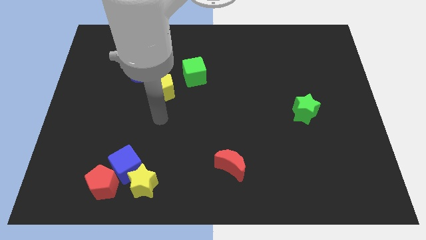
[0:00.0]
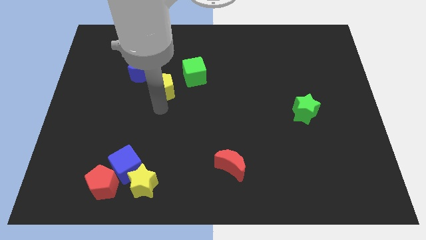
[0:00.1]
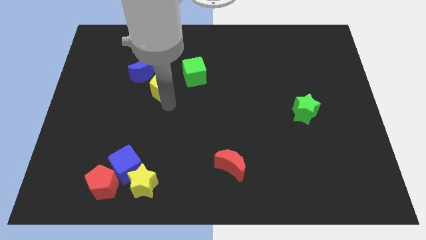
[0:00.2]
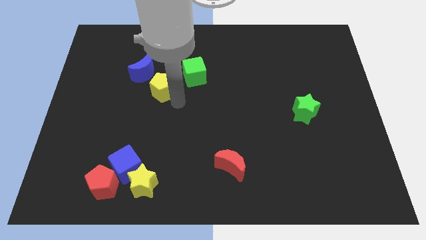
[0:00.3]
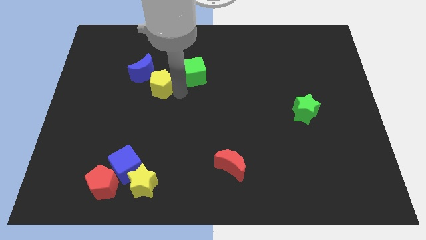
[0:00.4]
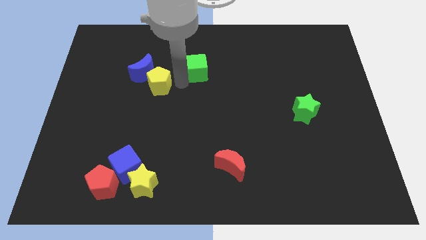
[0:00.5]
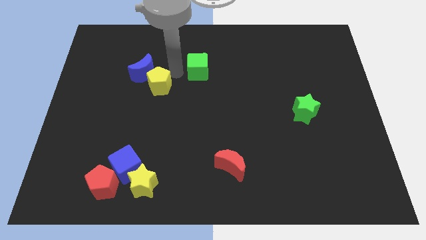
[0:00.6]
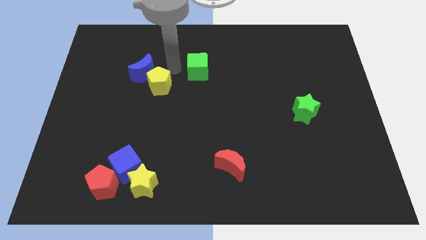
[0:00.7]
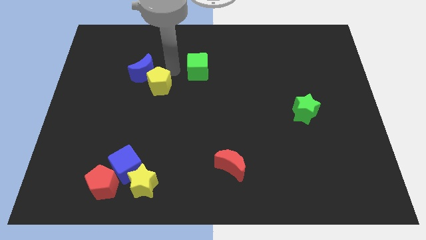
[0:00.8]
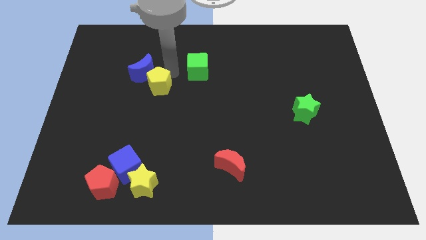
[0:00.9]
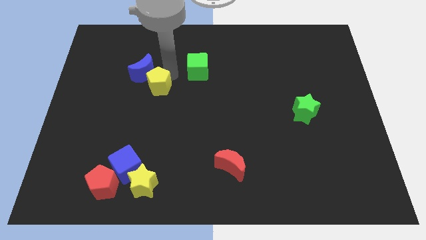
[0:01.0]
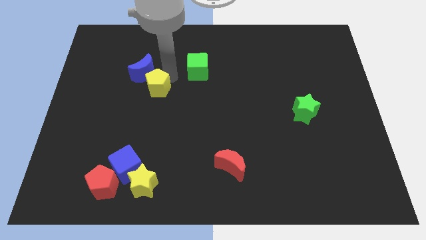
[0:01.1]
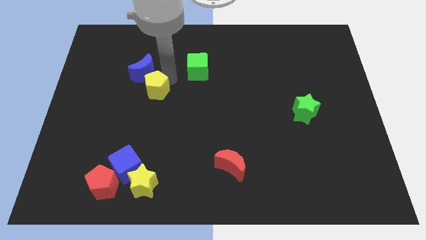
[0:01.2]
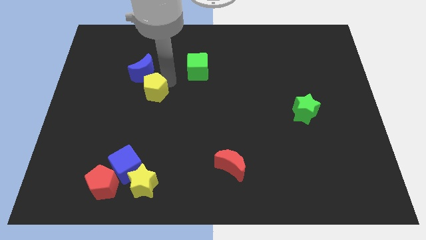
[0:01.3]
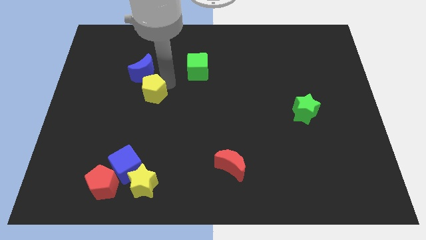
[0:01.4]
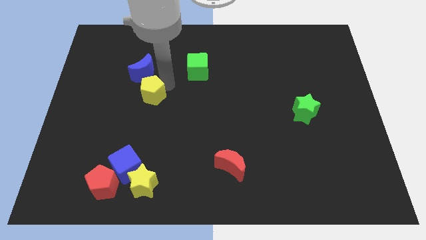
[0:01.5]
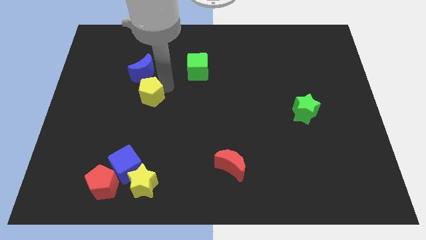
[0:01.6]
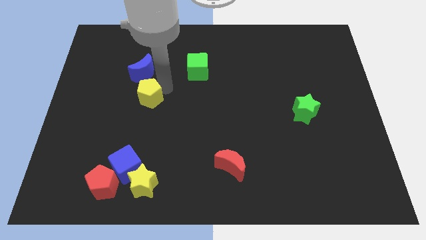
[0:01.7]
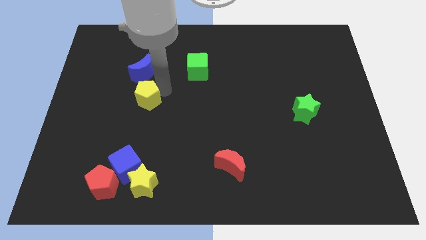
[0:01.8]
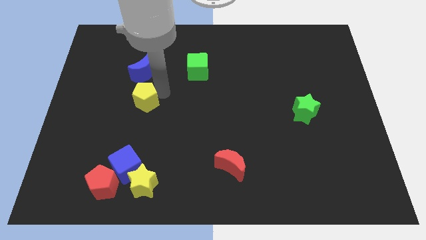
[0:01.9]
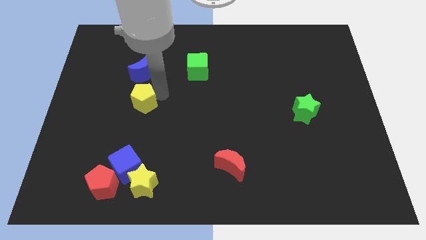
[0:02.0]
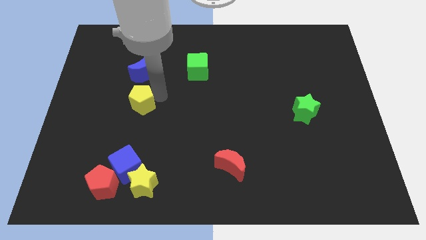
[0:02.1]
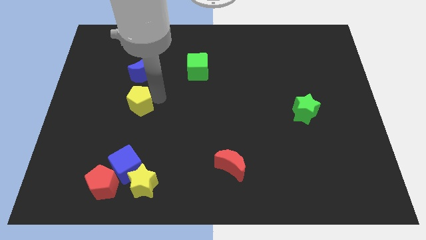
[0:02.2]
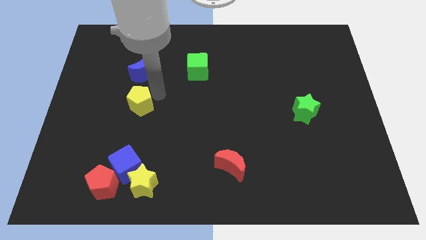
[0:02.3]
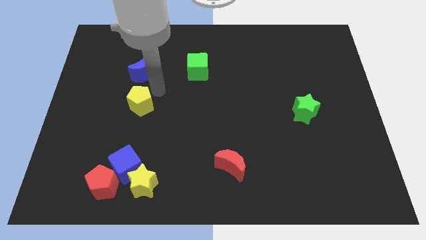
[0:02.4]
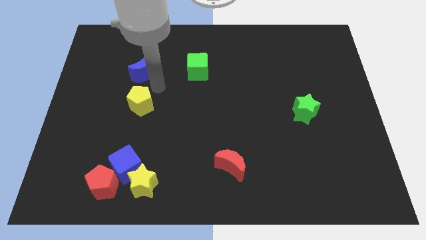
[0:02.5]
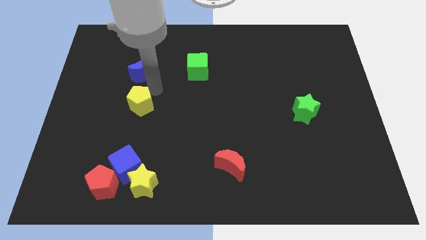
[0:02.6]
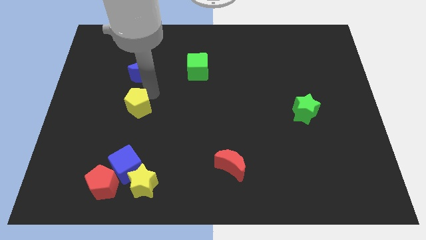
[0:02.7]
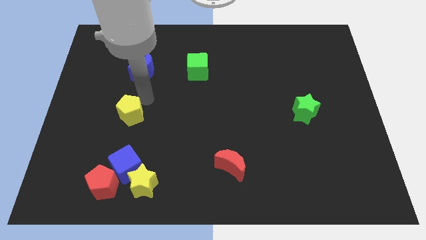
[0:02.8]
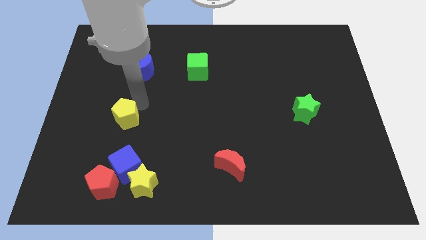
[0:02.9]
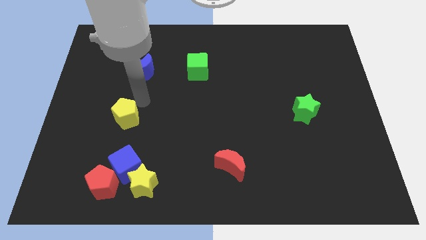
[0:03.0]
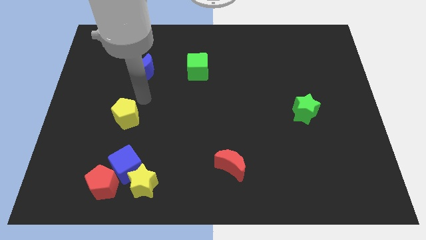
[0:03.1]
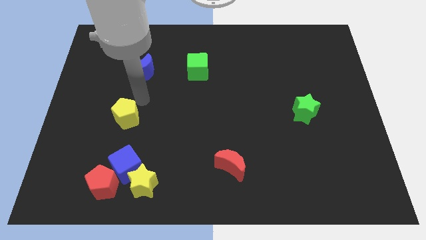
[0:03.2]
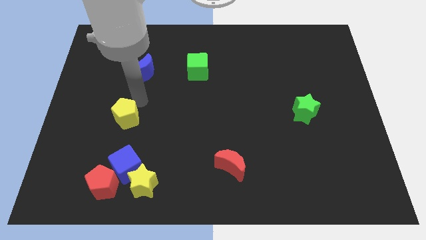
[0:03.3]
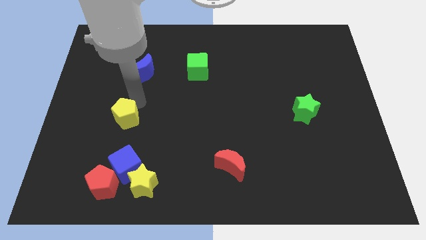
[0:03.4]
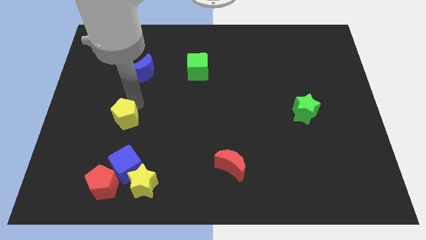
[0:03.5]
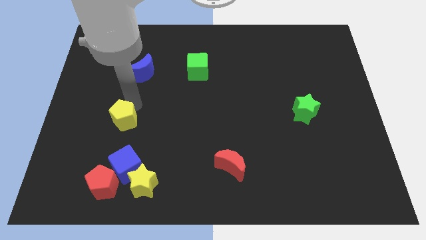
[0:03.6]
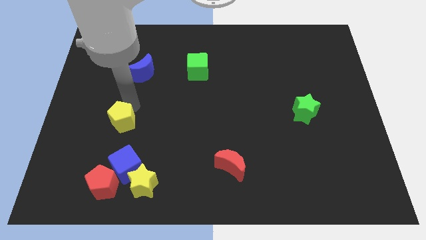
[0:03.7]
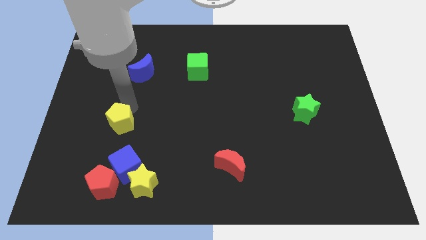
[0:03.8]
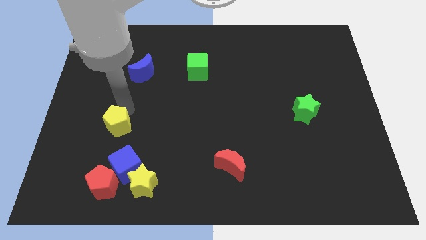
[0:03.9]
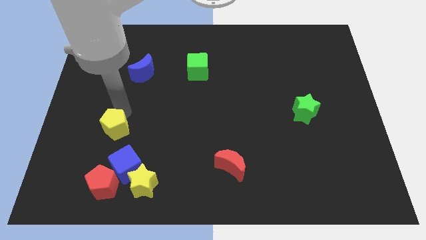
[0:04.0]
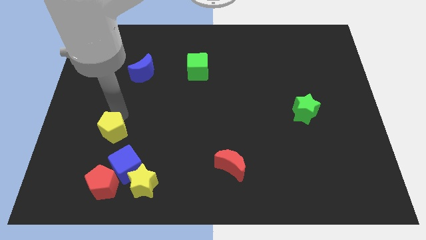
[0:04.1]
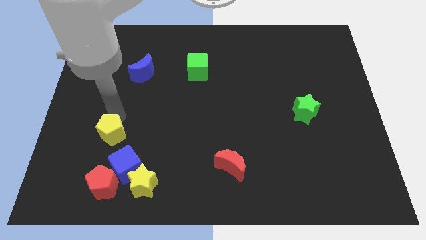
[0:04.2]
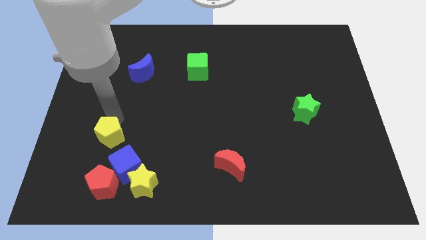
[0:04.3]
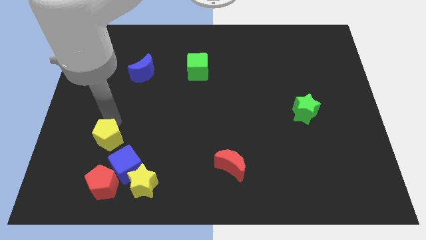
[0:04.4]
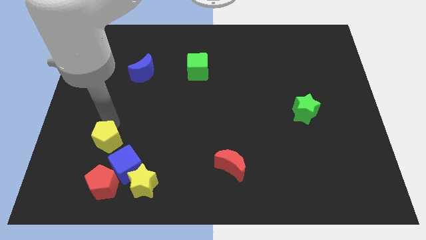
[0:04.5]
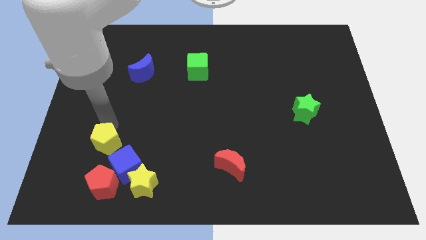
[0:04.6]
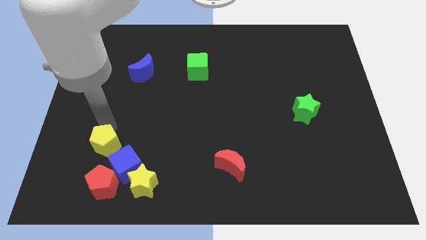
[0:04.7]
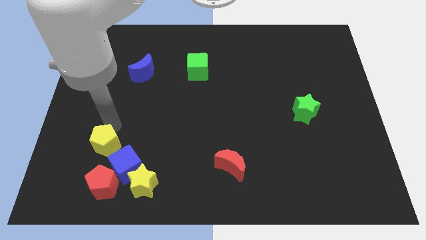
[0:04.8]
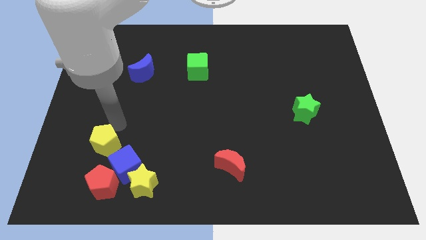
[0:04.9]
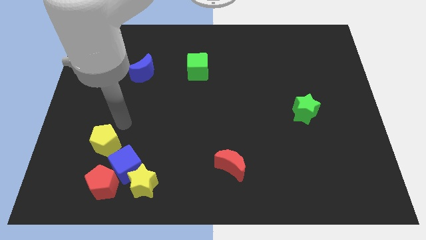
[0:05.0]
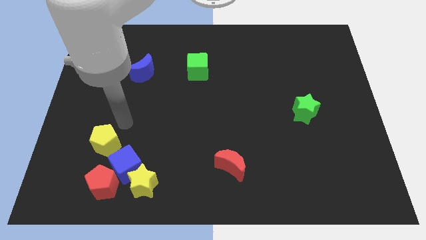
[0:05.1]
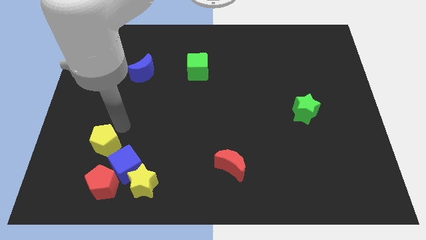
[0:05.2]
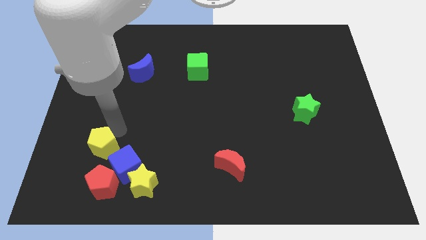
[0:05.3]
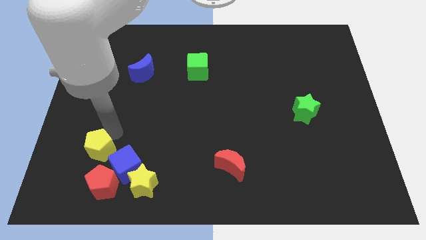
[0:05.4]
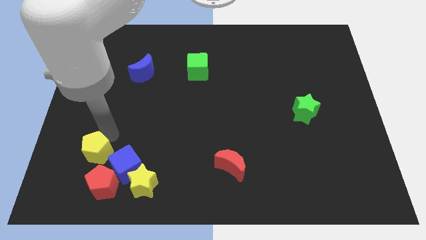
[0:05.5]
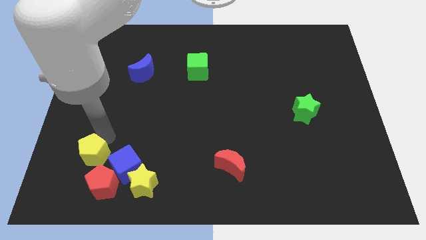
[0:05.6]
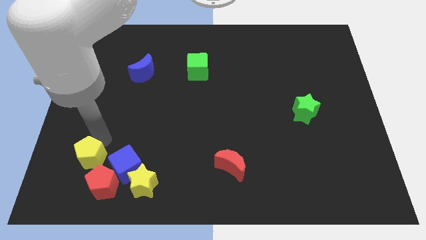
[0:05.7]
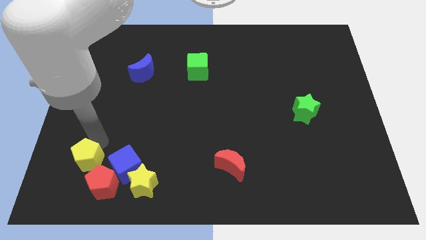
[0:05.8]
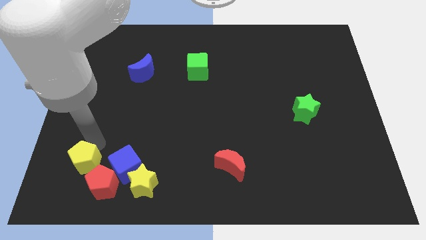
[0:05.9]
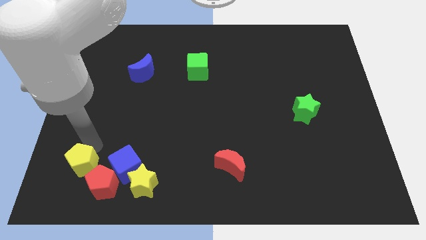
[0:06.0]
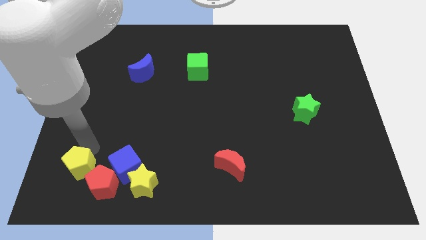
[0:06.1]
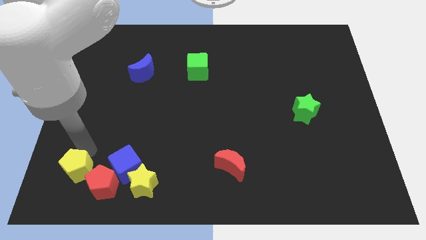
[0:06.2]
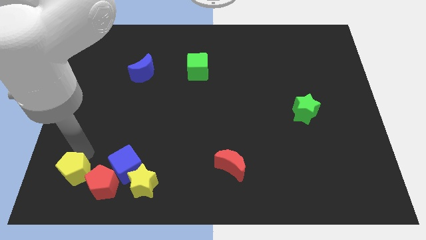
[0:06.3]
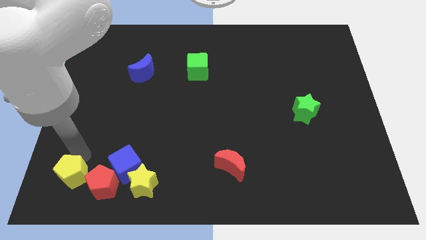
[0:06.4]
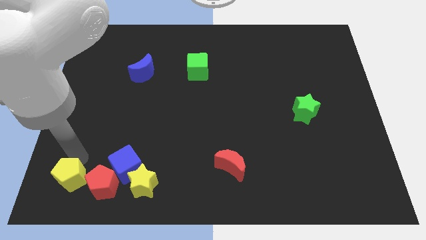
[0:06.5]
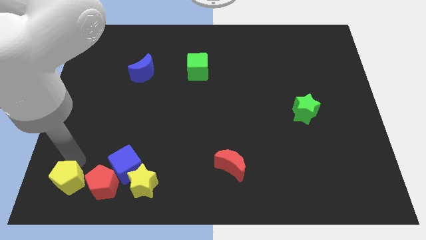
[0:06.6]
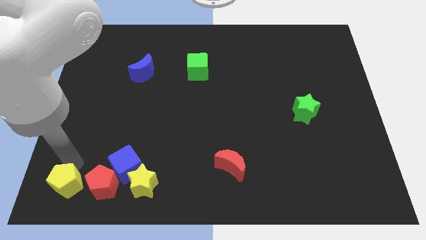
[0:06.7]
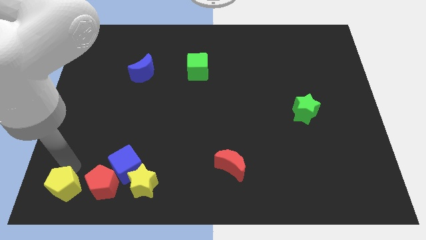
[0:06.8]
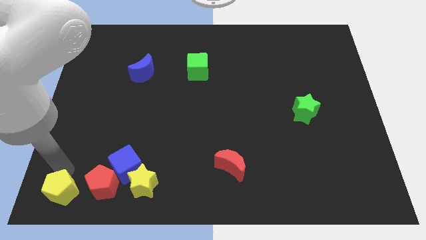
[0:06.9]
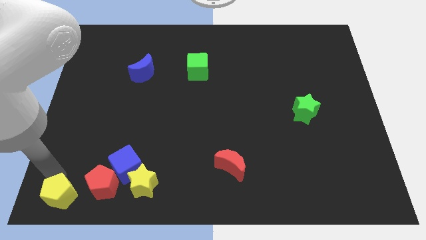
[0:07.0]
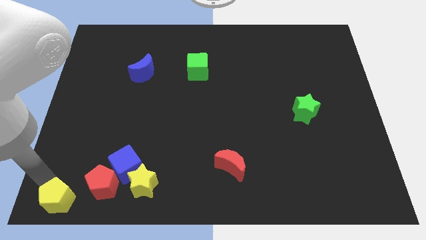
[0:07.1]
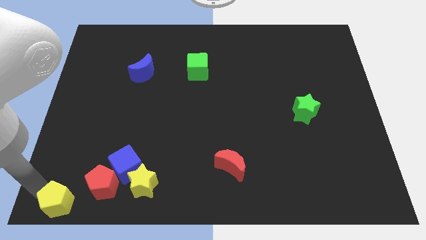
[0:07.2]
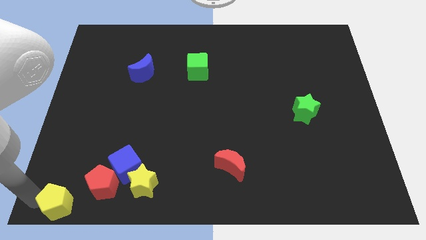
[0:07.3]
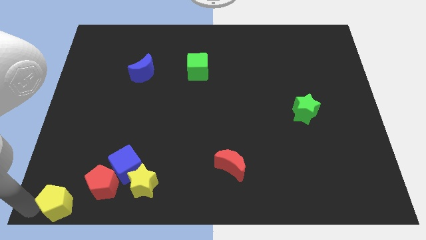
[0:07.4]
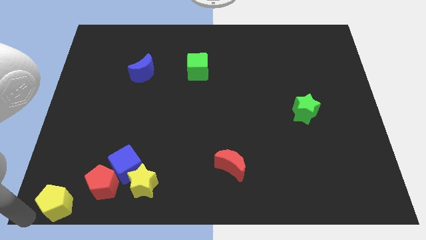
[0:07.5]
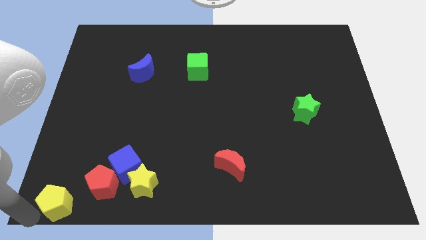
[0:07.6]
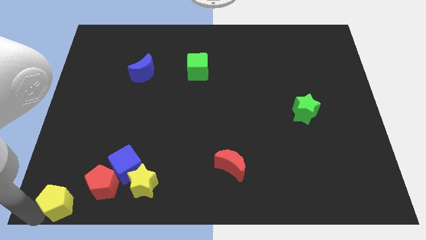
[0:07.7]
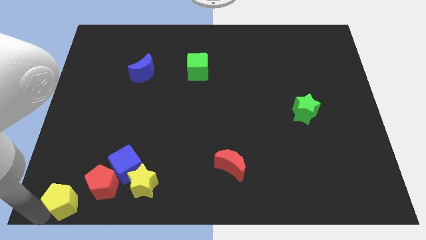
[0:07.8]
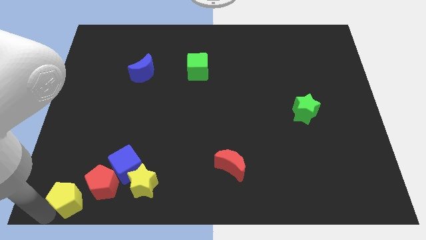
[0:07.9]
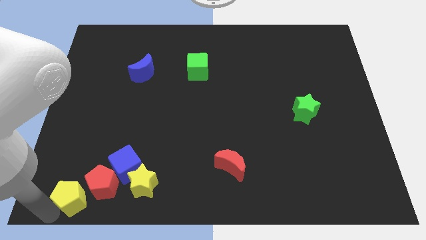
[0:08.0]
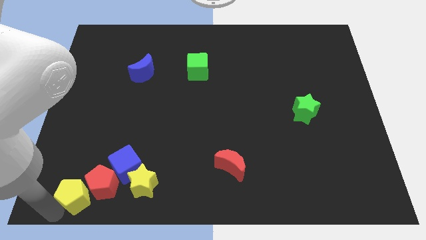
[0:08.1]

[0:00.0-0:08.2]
move the yellow pentagon to the red pentagon
